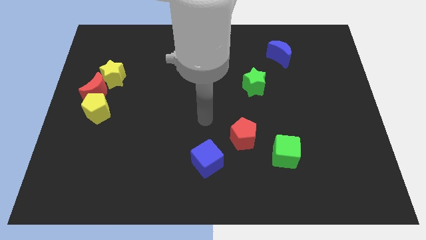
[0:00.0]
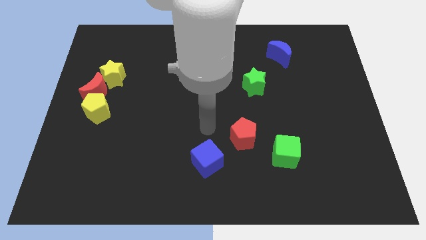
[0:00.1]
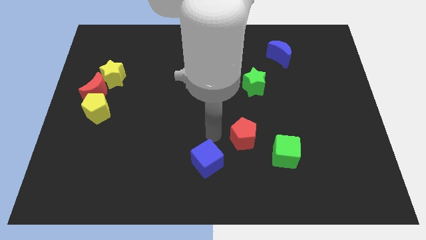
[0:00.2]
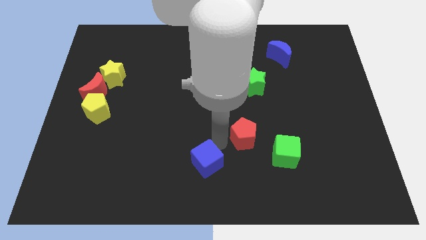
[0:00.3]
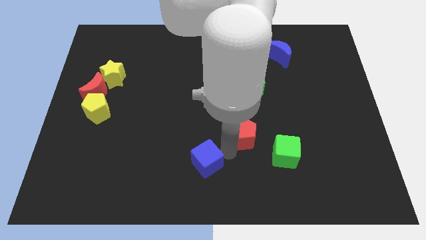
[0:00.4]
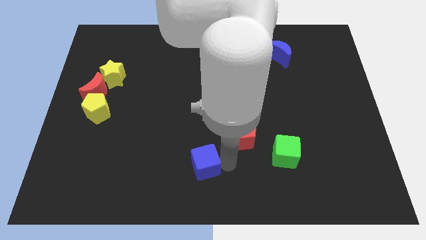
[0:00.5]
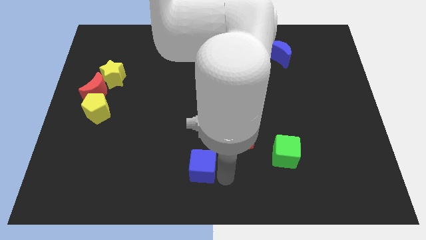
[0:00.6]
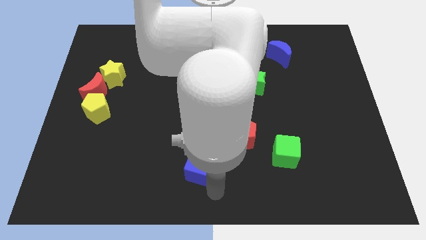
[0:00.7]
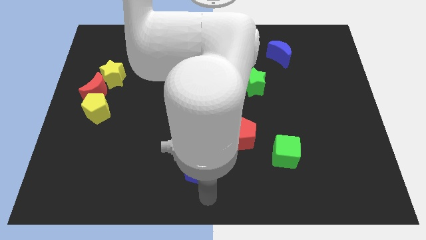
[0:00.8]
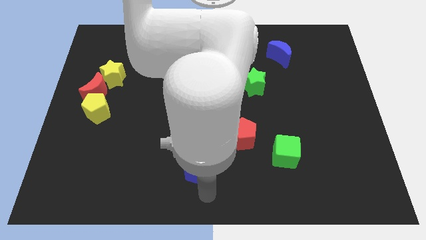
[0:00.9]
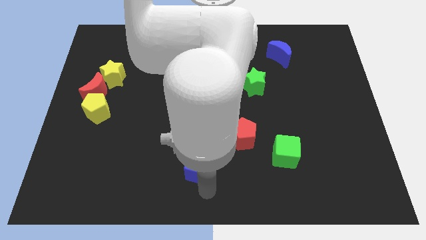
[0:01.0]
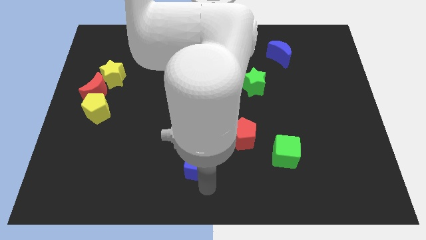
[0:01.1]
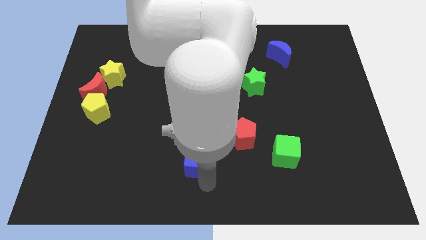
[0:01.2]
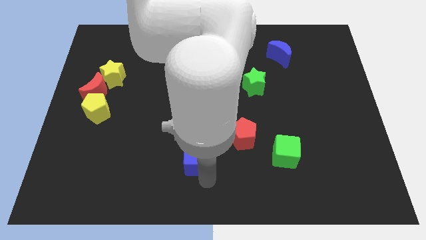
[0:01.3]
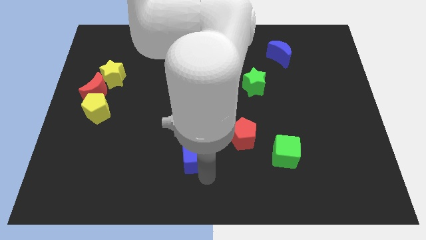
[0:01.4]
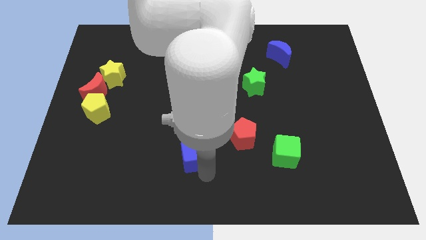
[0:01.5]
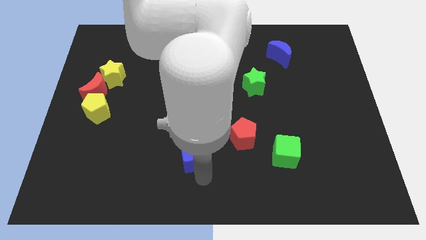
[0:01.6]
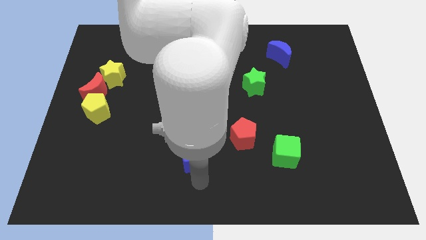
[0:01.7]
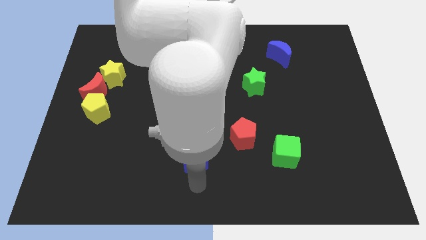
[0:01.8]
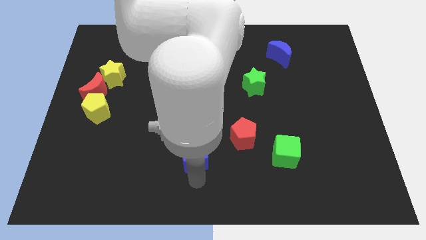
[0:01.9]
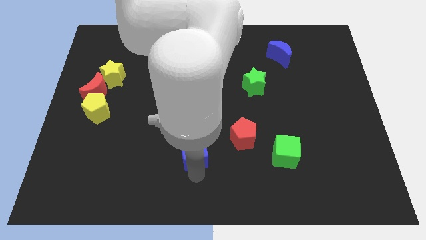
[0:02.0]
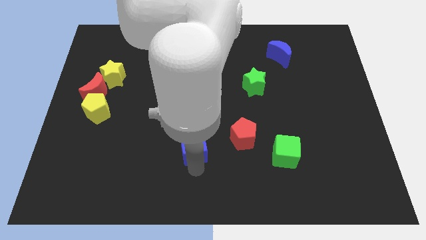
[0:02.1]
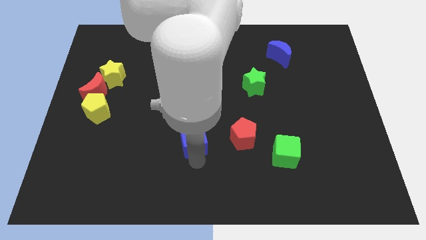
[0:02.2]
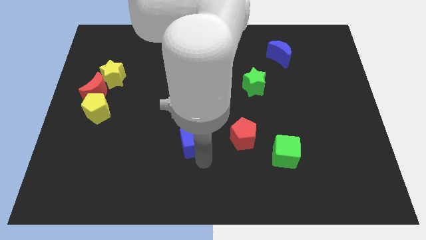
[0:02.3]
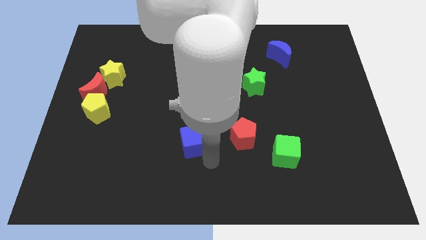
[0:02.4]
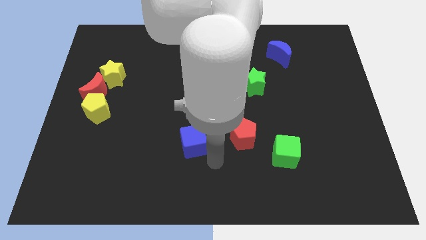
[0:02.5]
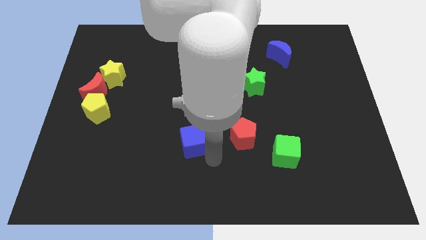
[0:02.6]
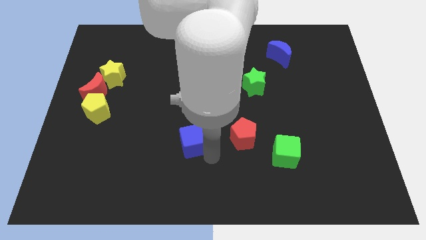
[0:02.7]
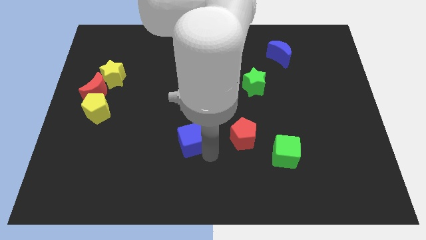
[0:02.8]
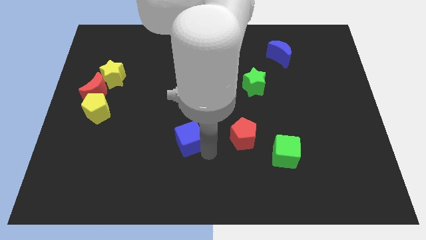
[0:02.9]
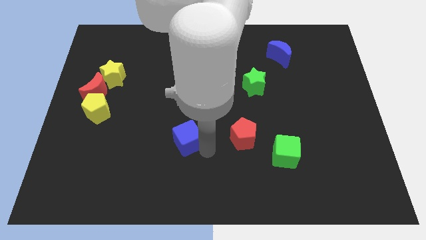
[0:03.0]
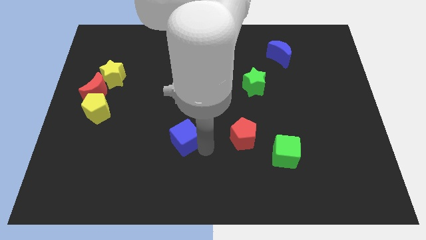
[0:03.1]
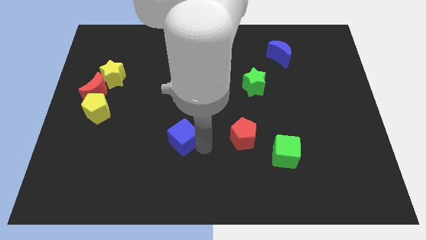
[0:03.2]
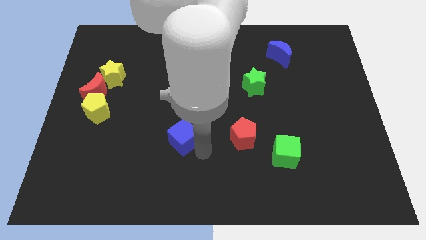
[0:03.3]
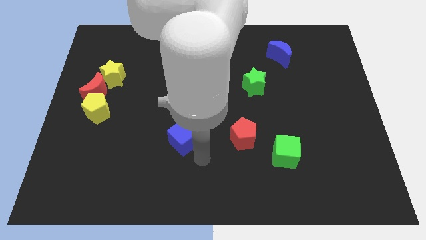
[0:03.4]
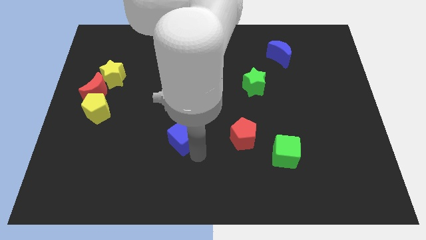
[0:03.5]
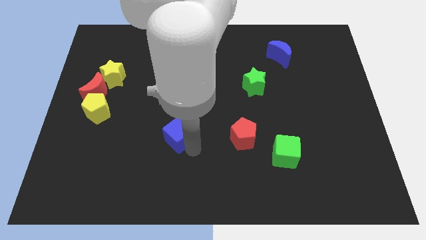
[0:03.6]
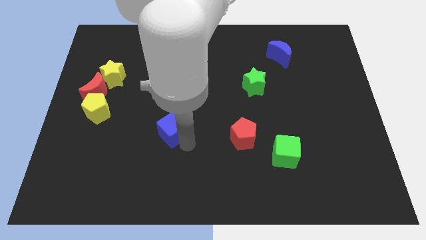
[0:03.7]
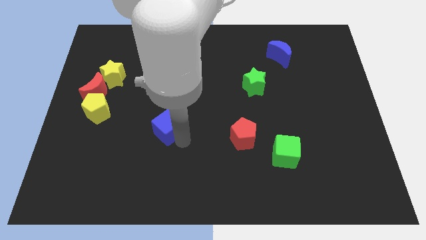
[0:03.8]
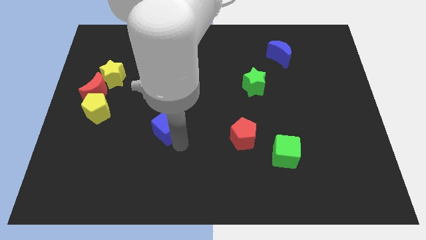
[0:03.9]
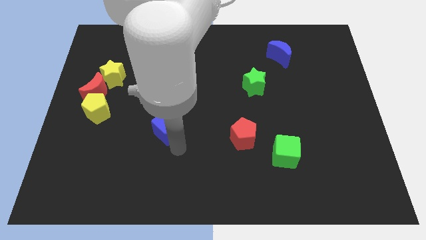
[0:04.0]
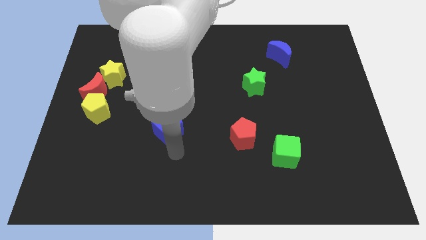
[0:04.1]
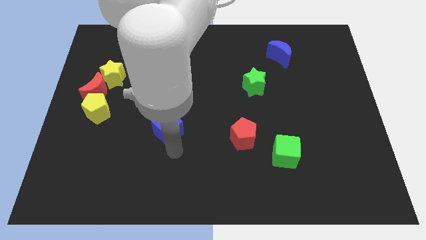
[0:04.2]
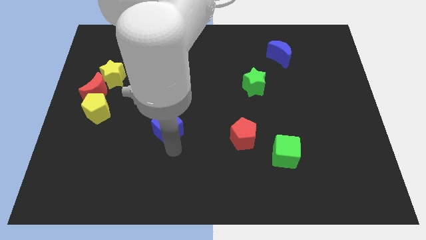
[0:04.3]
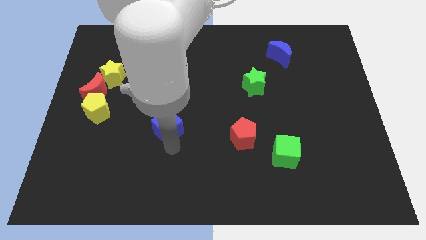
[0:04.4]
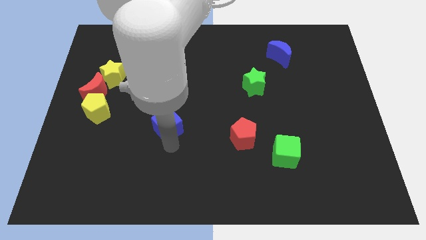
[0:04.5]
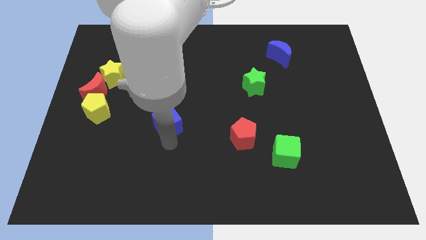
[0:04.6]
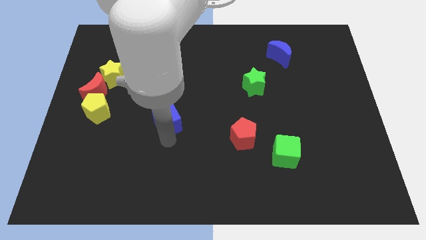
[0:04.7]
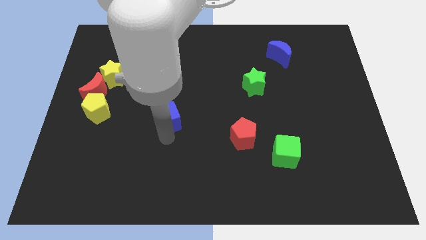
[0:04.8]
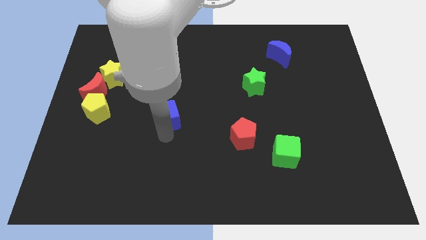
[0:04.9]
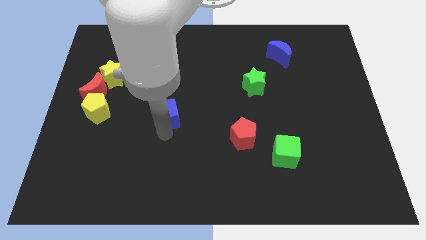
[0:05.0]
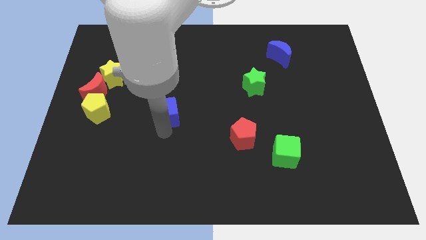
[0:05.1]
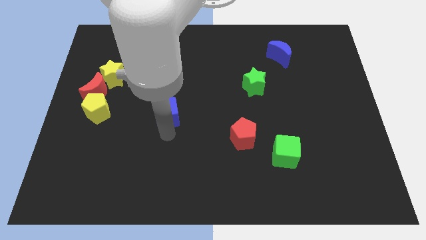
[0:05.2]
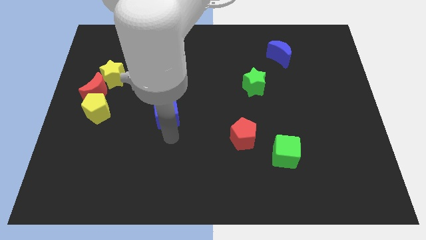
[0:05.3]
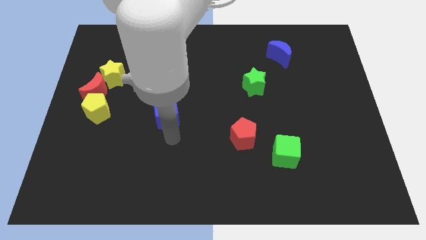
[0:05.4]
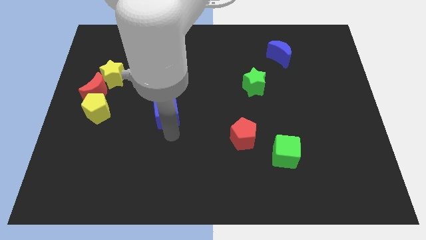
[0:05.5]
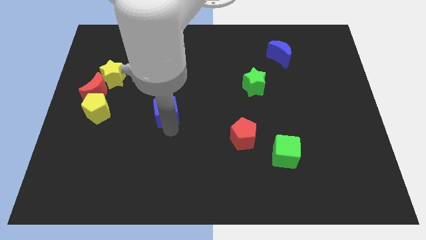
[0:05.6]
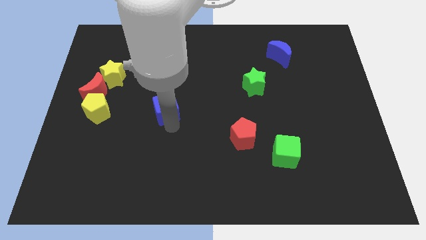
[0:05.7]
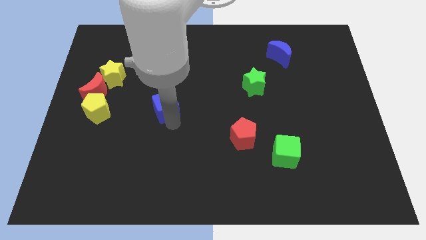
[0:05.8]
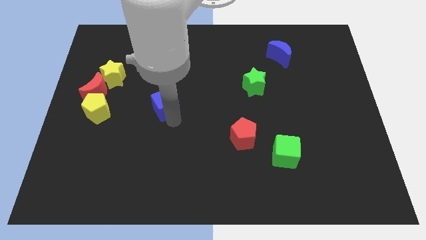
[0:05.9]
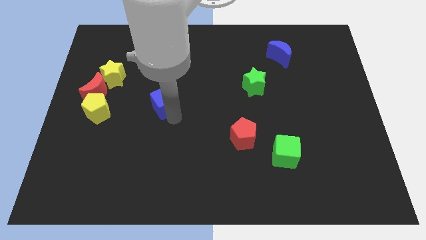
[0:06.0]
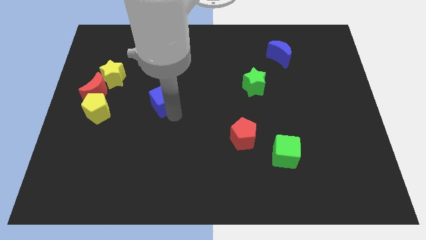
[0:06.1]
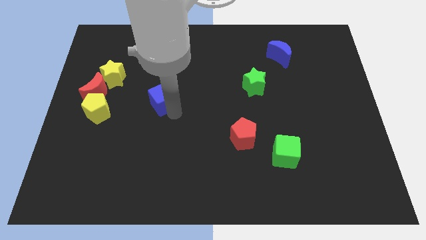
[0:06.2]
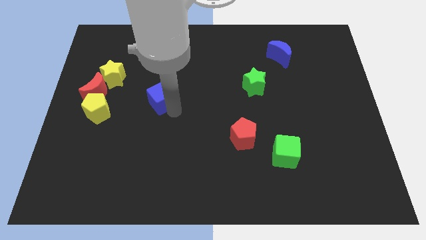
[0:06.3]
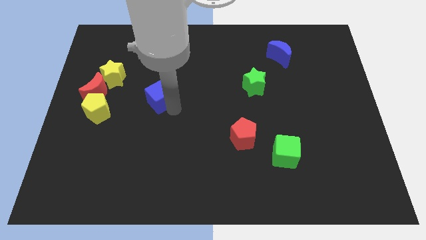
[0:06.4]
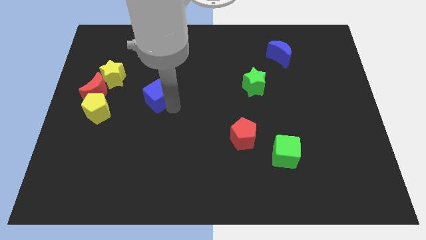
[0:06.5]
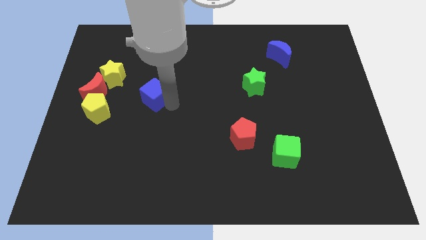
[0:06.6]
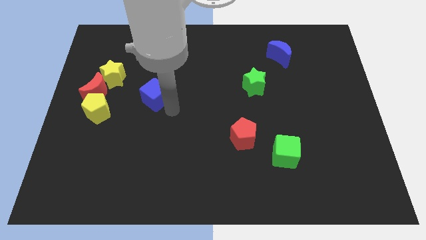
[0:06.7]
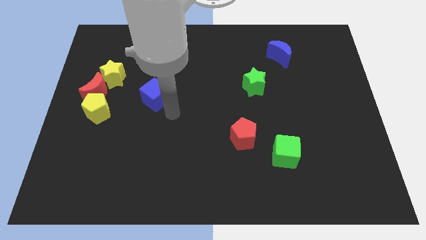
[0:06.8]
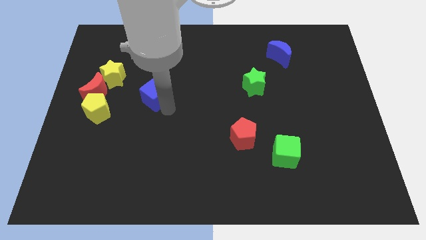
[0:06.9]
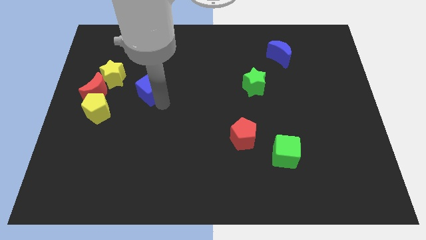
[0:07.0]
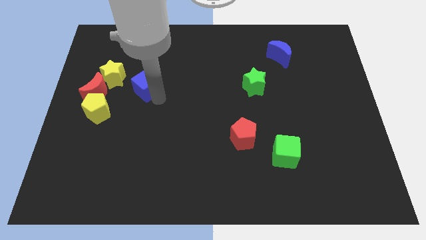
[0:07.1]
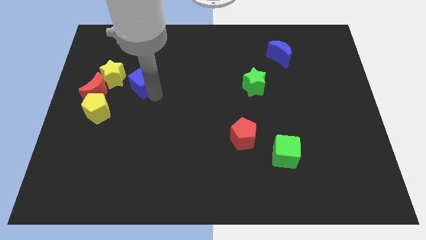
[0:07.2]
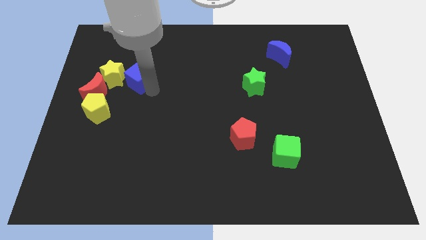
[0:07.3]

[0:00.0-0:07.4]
slide the blue cube diagonally up and to the right of the red moon
